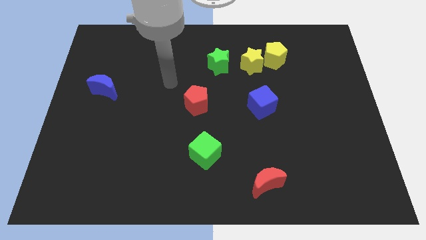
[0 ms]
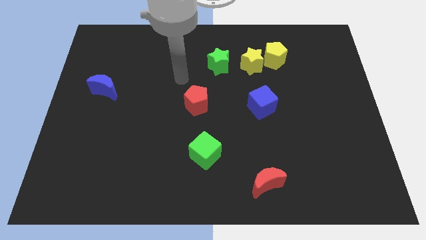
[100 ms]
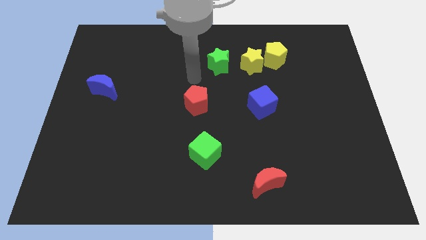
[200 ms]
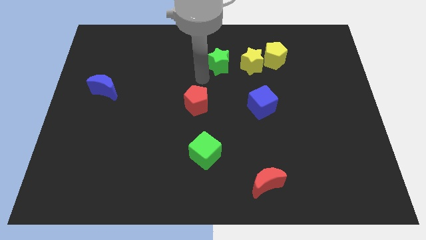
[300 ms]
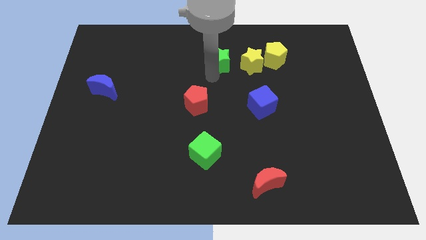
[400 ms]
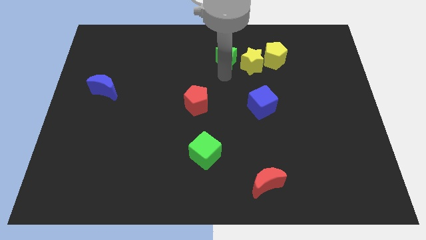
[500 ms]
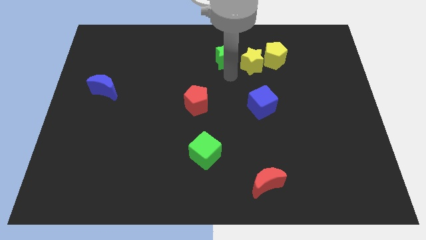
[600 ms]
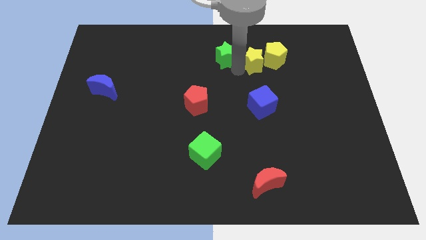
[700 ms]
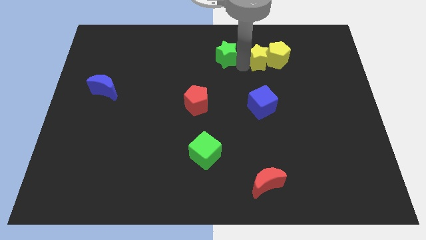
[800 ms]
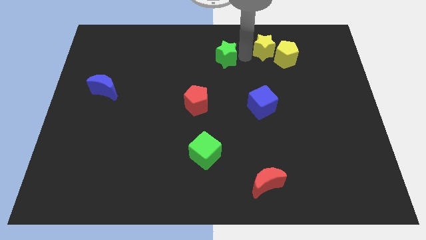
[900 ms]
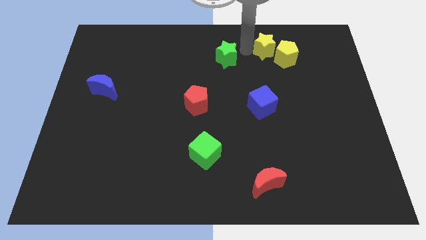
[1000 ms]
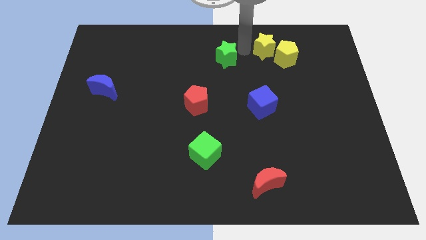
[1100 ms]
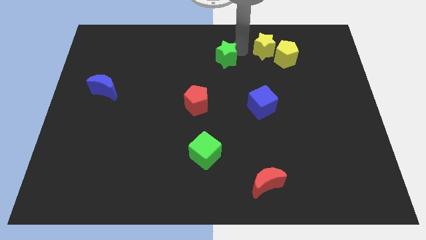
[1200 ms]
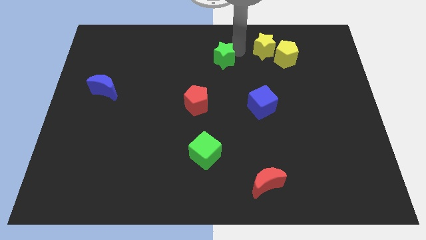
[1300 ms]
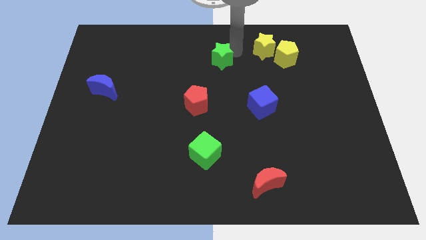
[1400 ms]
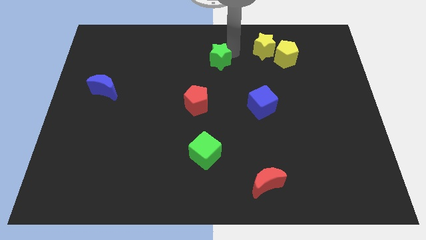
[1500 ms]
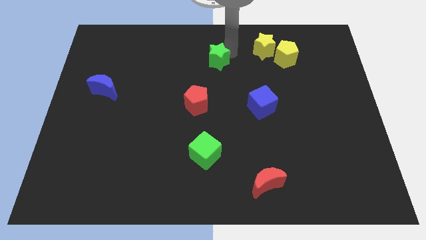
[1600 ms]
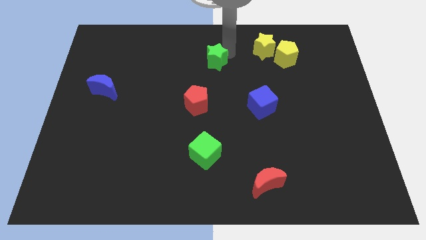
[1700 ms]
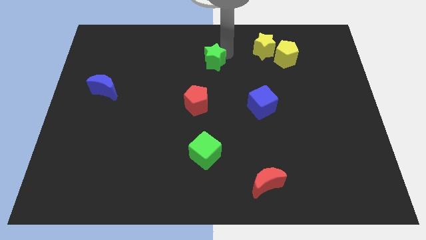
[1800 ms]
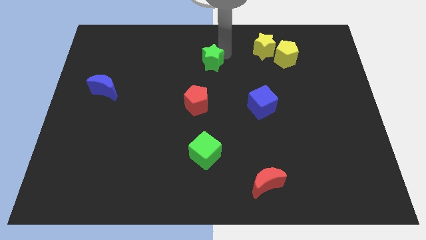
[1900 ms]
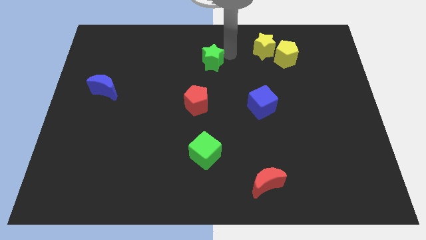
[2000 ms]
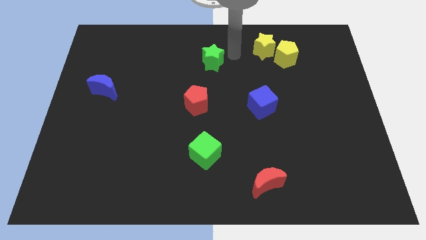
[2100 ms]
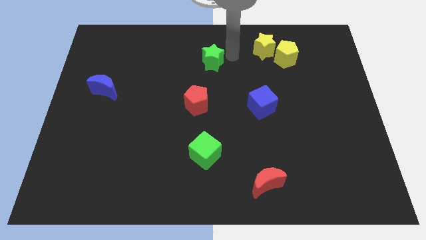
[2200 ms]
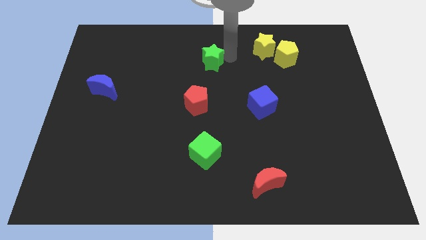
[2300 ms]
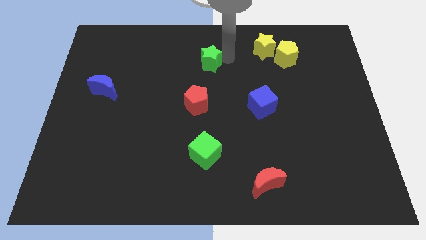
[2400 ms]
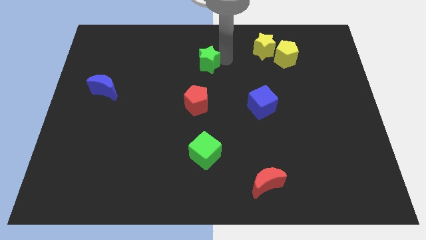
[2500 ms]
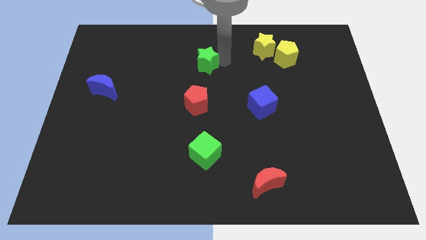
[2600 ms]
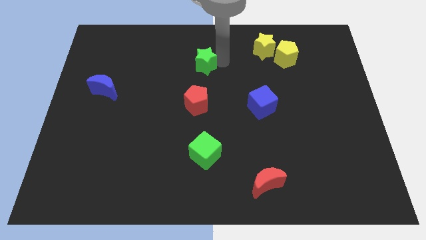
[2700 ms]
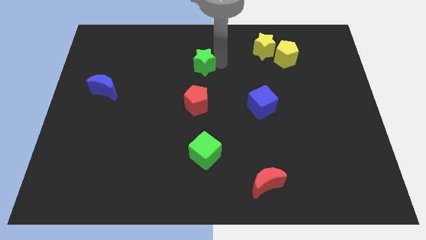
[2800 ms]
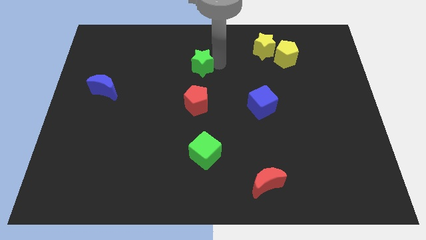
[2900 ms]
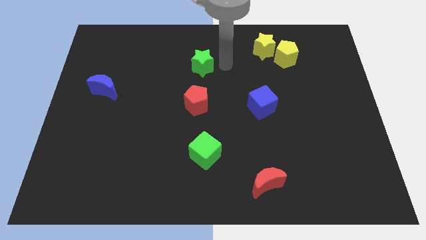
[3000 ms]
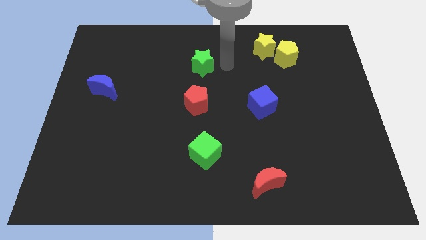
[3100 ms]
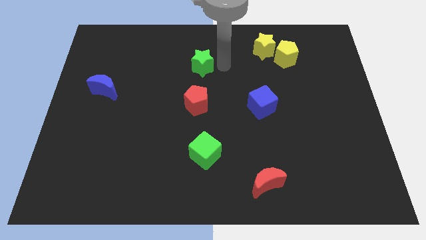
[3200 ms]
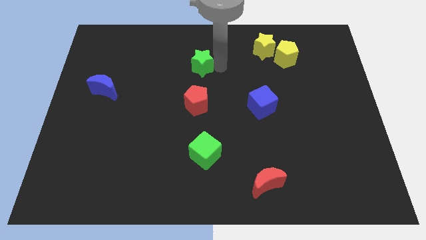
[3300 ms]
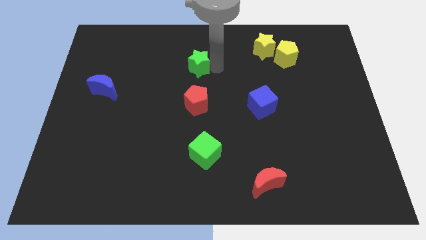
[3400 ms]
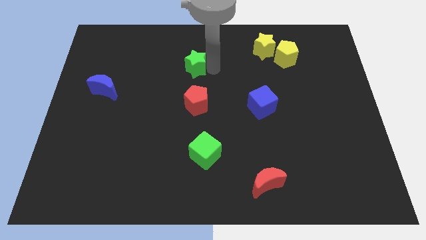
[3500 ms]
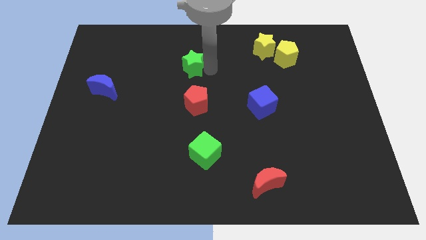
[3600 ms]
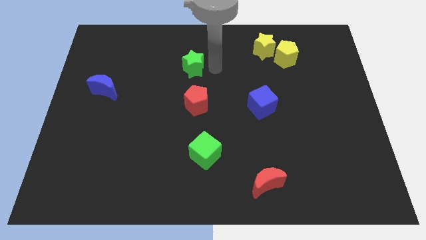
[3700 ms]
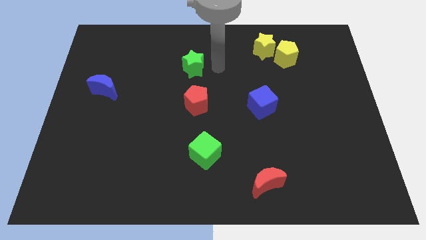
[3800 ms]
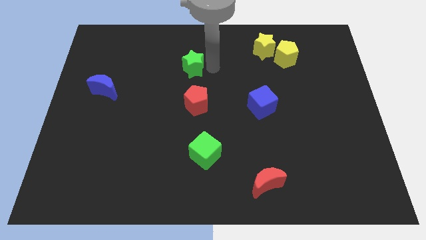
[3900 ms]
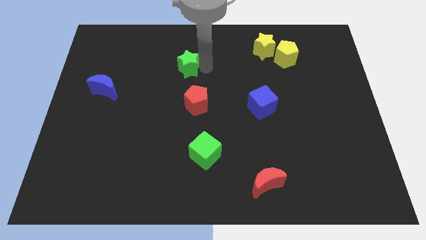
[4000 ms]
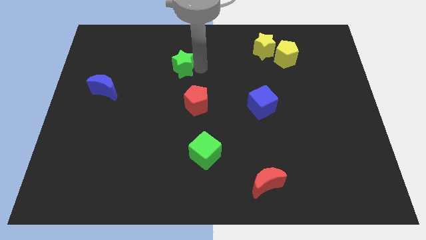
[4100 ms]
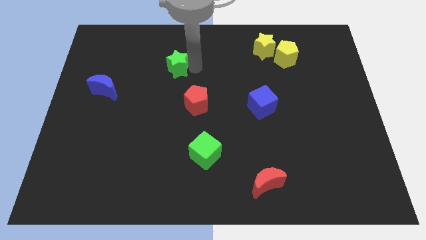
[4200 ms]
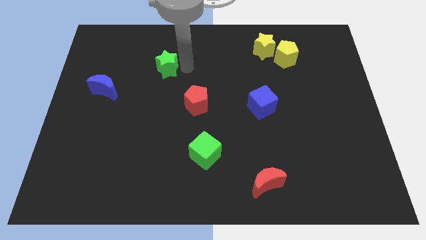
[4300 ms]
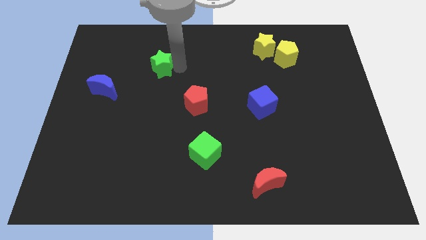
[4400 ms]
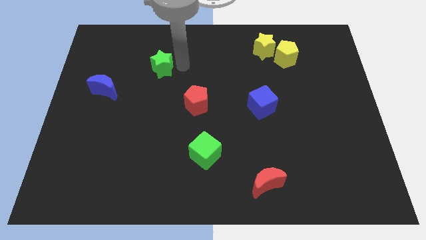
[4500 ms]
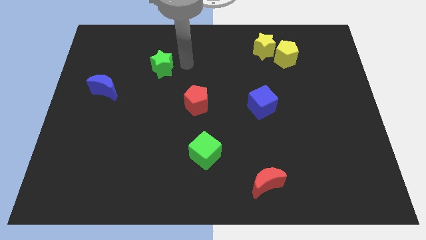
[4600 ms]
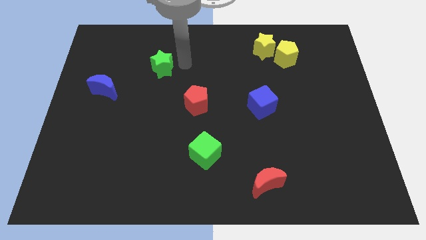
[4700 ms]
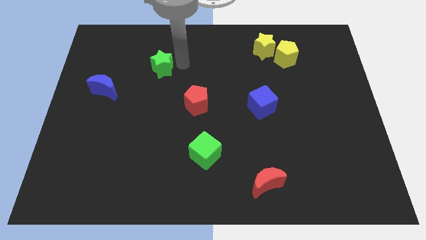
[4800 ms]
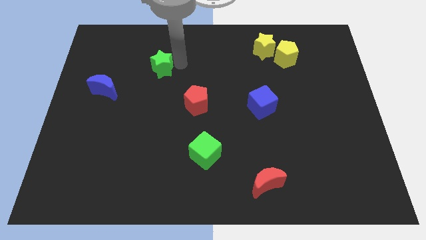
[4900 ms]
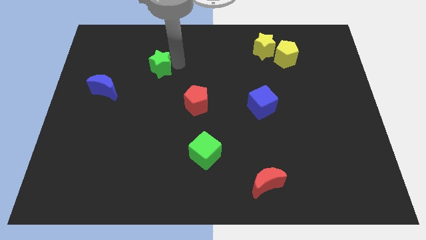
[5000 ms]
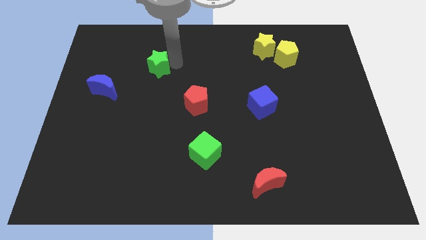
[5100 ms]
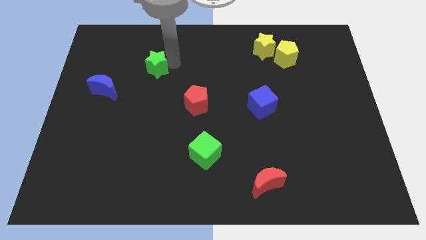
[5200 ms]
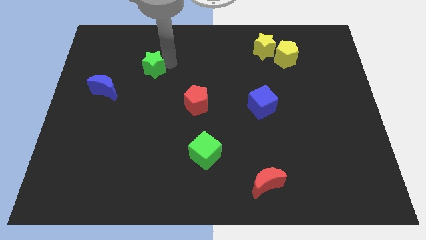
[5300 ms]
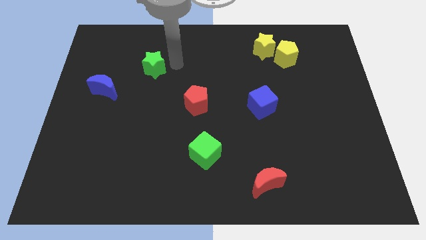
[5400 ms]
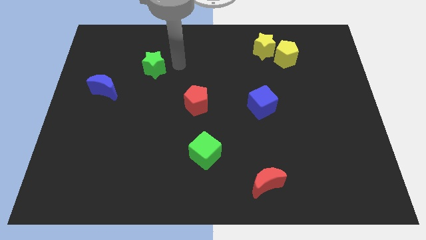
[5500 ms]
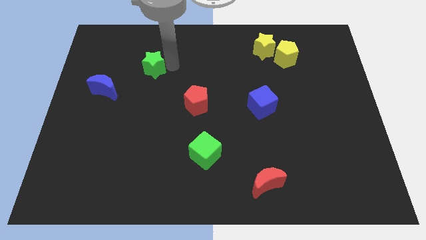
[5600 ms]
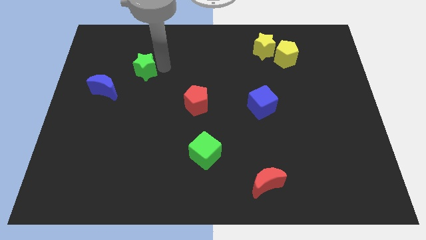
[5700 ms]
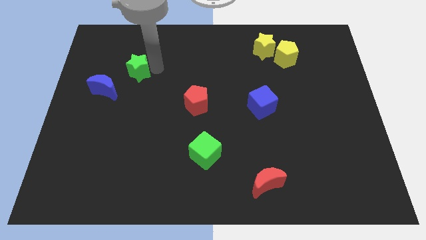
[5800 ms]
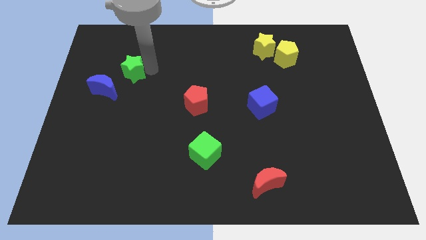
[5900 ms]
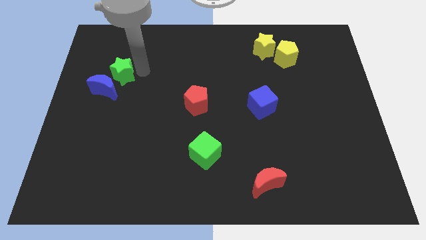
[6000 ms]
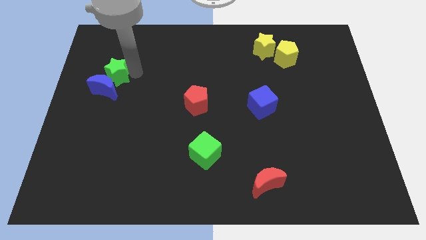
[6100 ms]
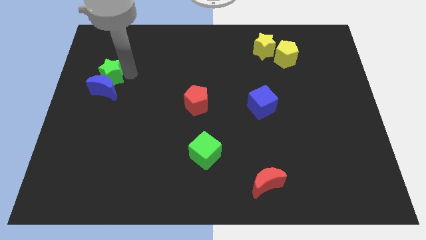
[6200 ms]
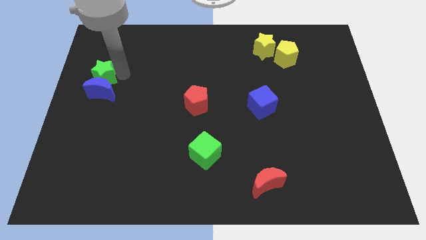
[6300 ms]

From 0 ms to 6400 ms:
move the green star to the left side of the board
